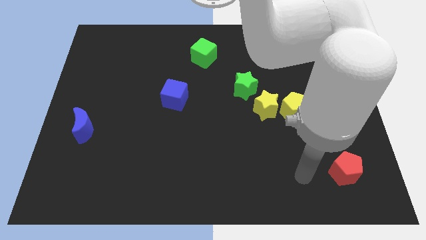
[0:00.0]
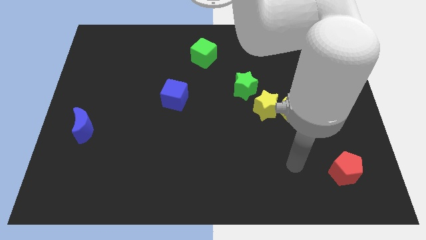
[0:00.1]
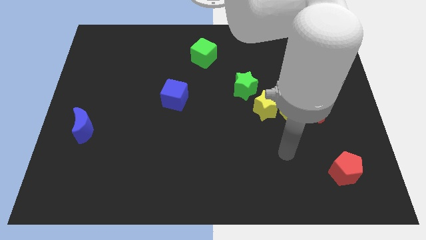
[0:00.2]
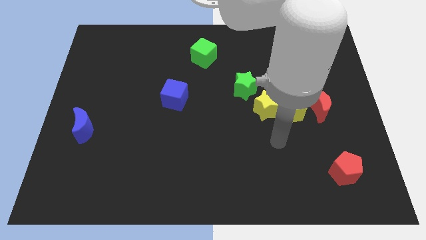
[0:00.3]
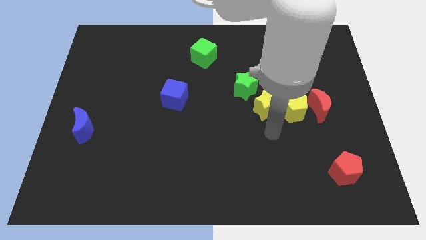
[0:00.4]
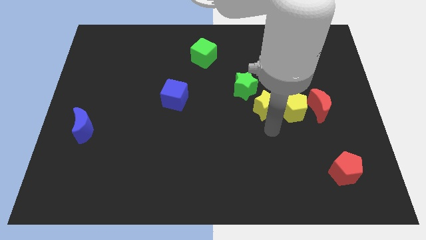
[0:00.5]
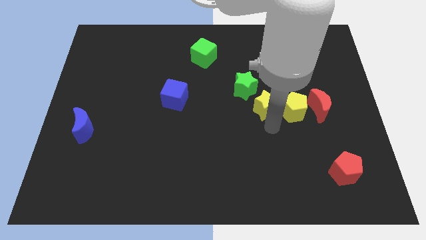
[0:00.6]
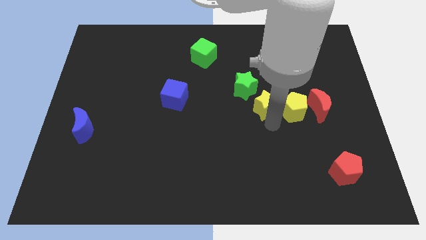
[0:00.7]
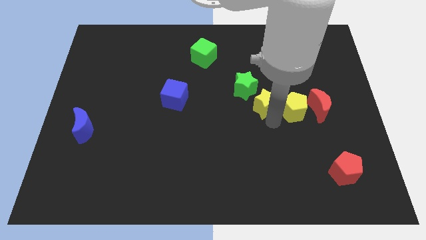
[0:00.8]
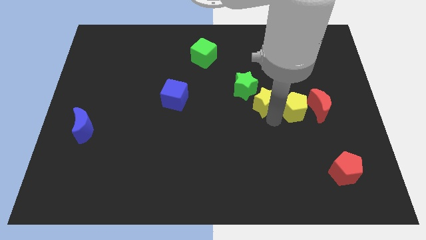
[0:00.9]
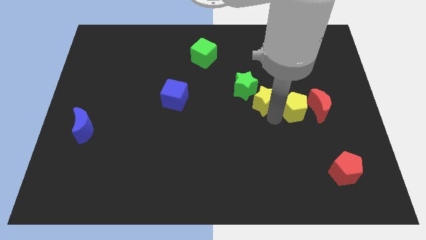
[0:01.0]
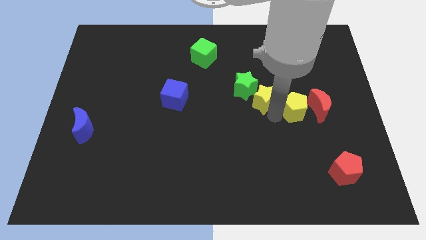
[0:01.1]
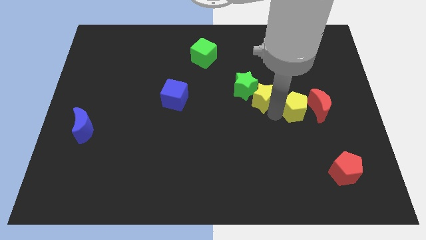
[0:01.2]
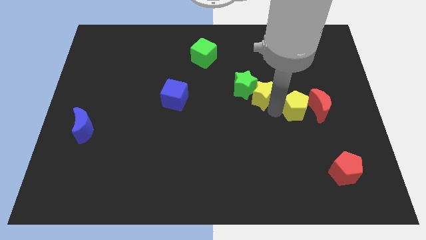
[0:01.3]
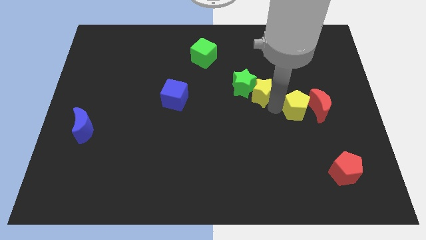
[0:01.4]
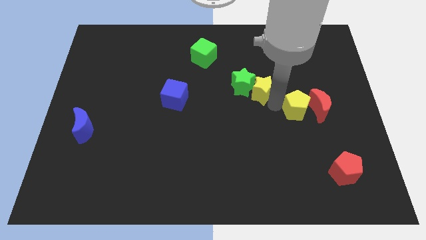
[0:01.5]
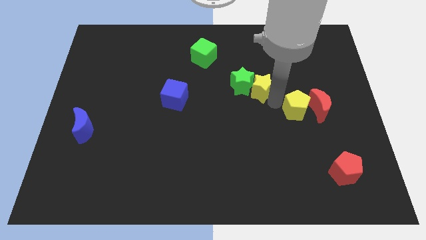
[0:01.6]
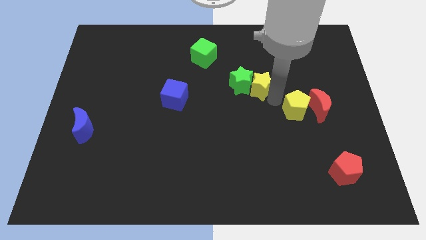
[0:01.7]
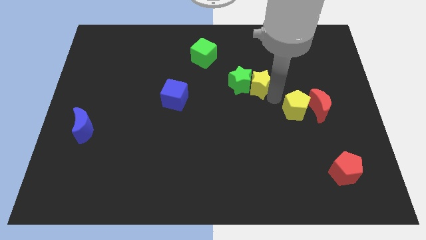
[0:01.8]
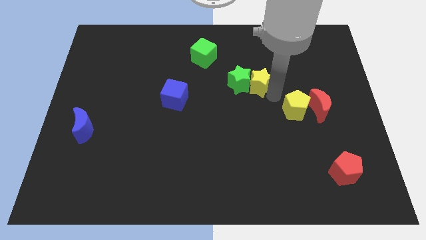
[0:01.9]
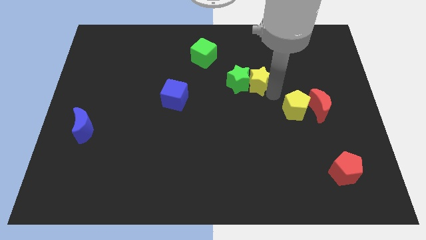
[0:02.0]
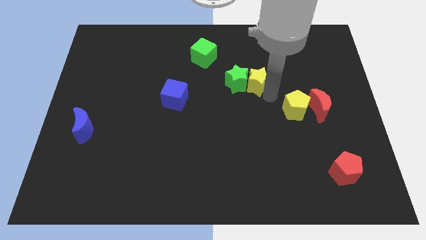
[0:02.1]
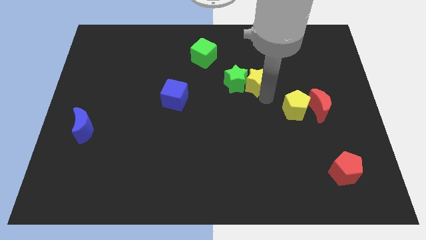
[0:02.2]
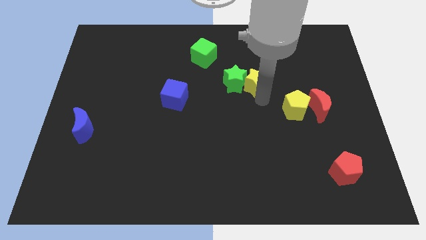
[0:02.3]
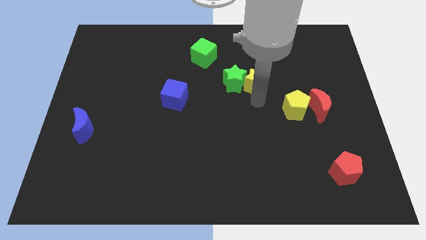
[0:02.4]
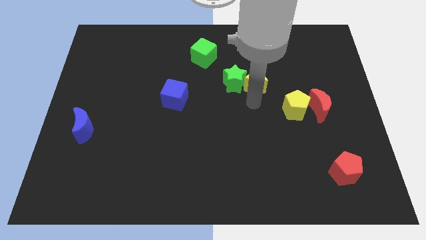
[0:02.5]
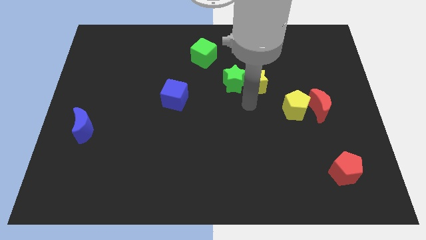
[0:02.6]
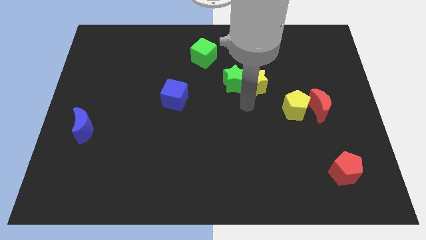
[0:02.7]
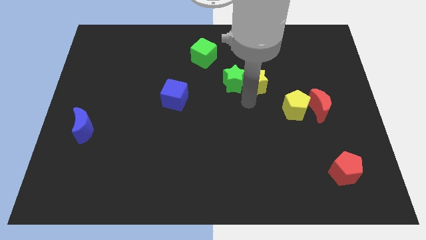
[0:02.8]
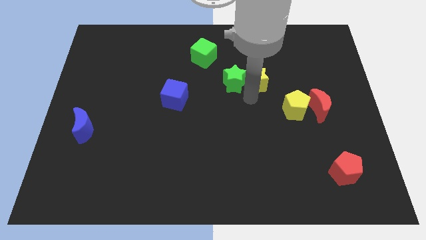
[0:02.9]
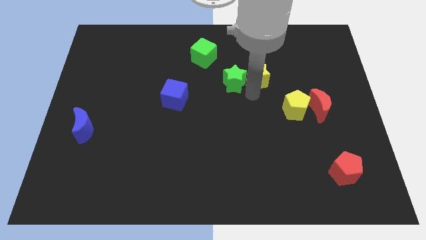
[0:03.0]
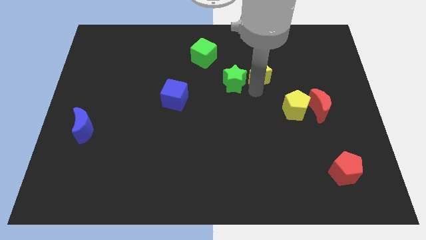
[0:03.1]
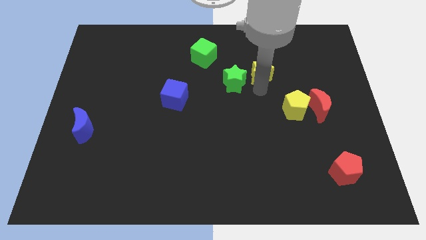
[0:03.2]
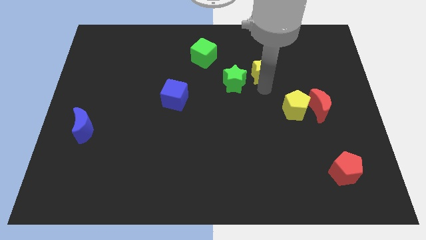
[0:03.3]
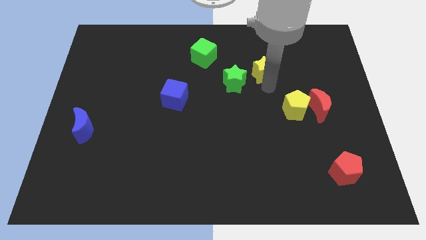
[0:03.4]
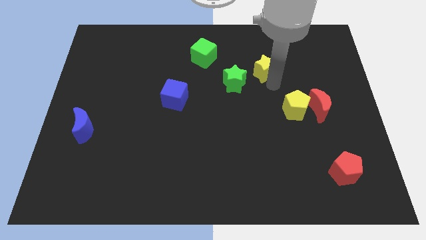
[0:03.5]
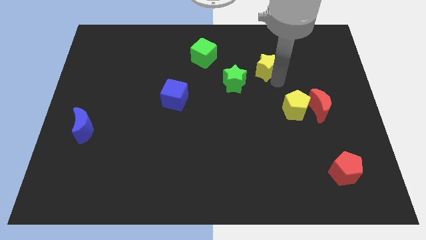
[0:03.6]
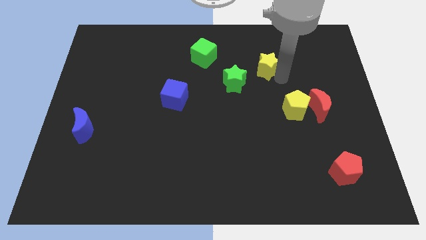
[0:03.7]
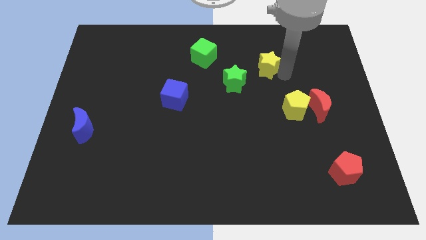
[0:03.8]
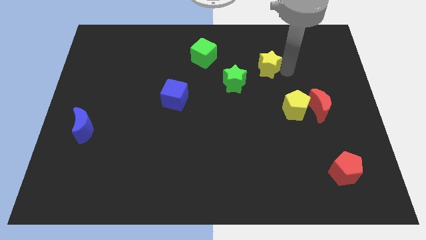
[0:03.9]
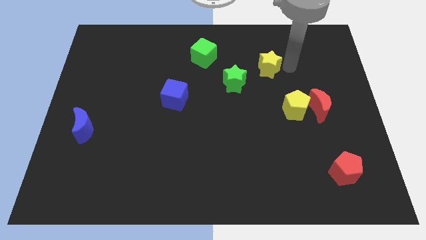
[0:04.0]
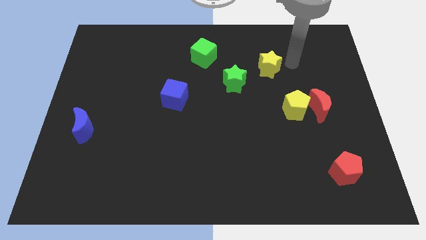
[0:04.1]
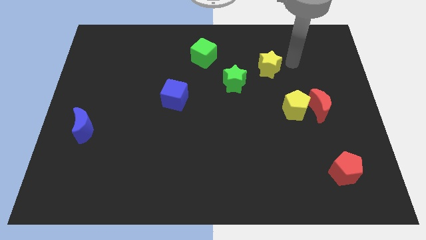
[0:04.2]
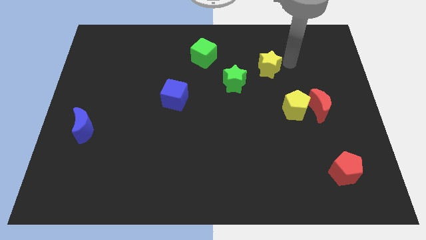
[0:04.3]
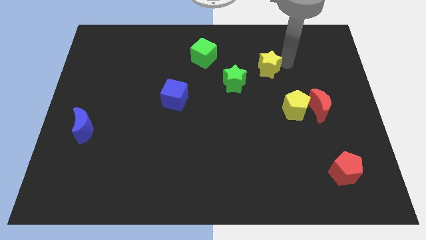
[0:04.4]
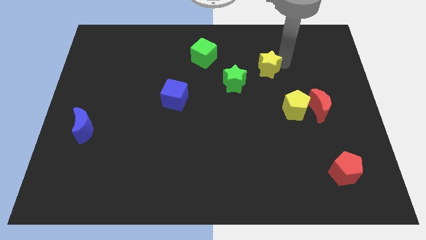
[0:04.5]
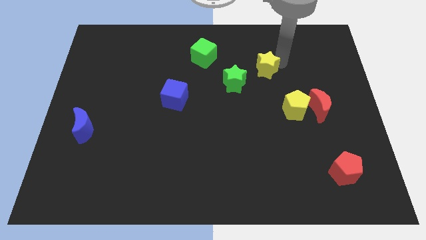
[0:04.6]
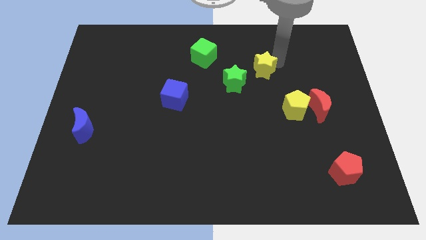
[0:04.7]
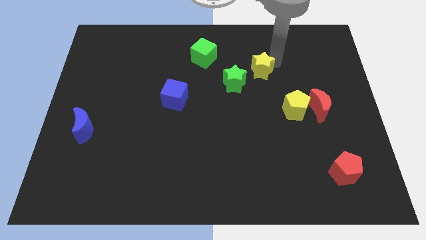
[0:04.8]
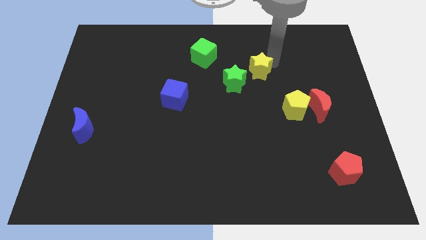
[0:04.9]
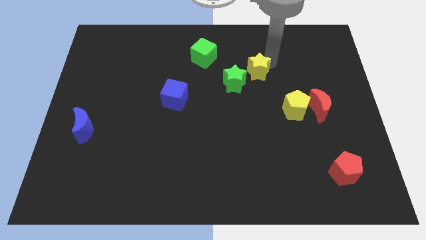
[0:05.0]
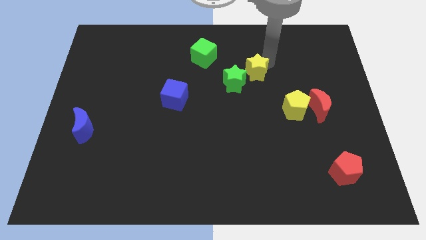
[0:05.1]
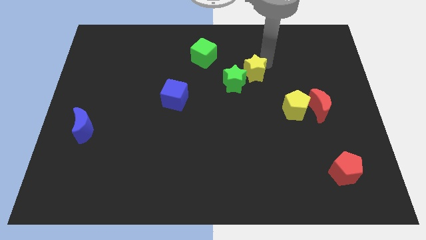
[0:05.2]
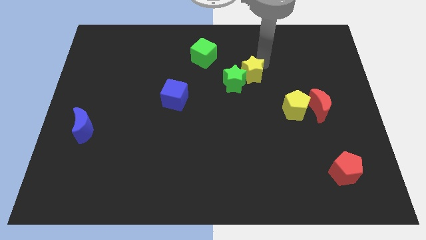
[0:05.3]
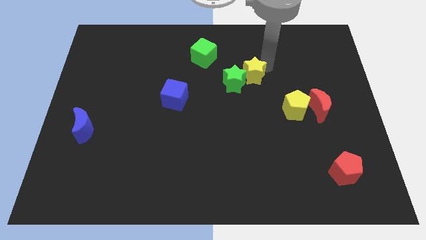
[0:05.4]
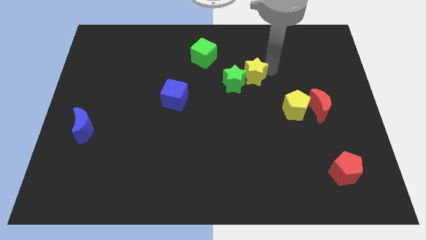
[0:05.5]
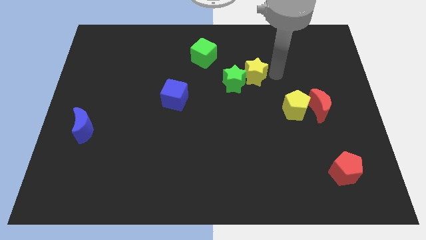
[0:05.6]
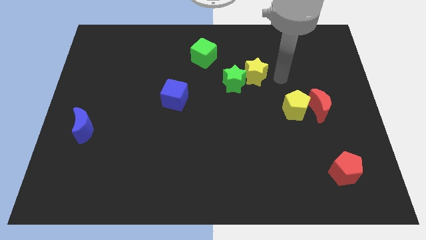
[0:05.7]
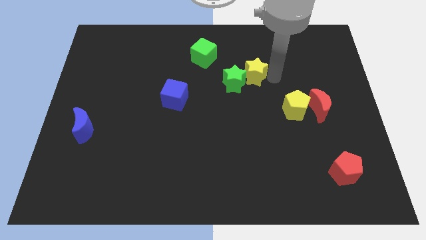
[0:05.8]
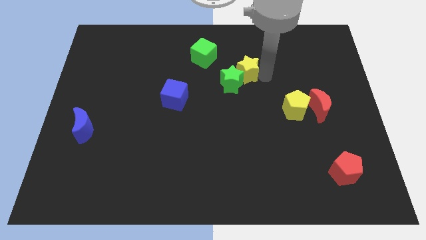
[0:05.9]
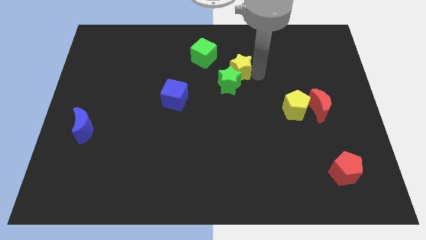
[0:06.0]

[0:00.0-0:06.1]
slide the yellow star to the bottom right side of the green cube

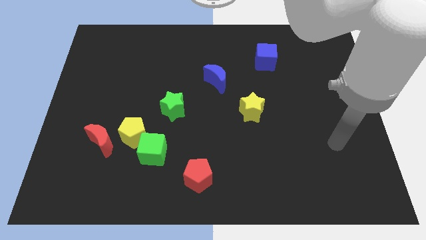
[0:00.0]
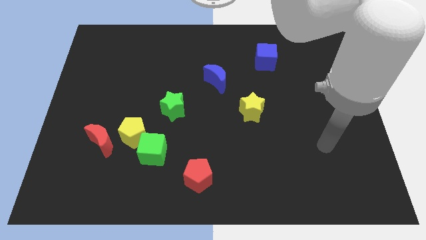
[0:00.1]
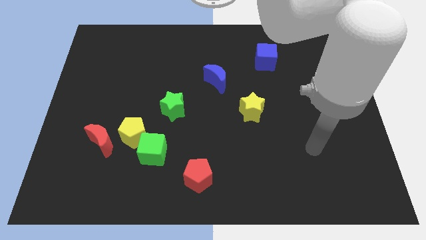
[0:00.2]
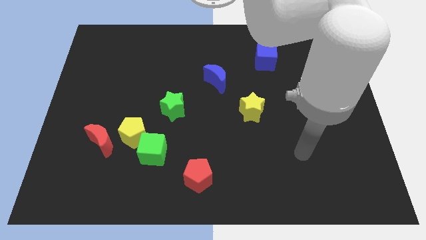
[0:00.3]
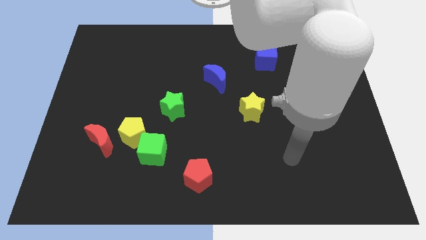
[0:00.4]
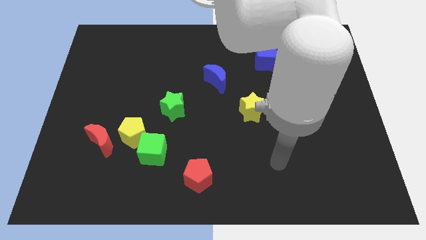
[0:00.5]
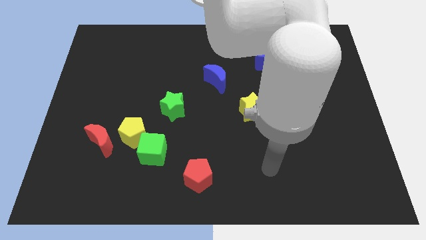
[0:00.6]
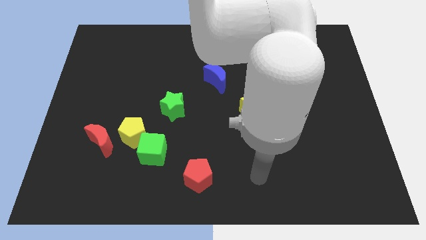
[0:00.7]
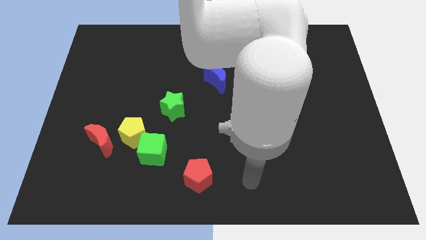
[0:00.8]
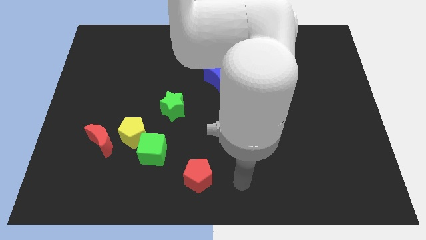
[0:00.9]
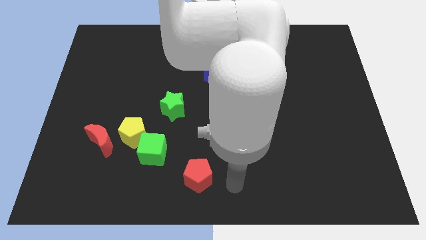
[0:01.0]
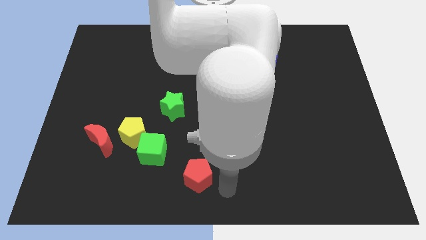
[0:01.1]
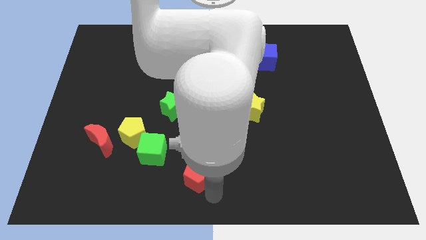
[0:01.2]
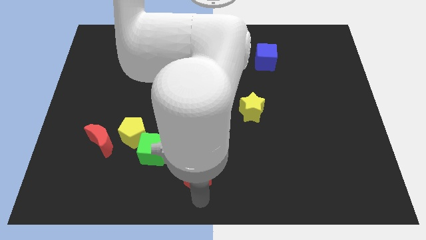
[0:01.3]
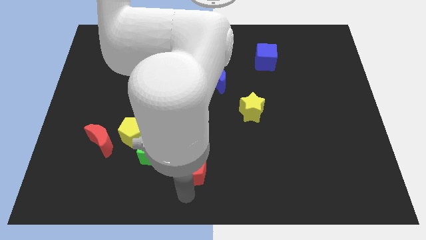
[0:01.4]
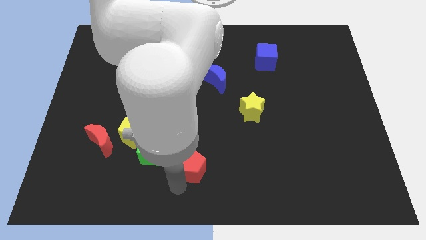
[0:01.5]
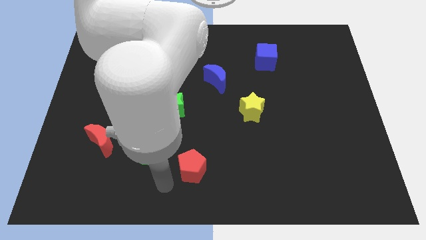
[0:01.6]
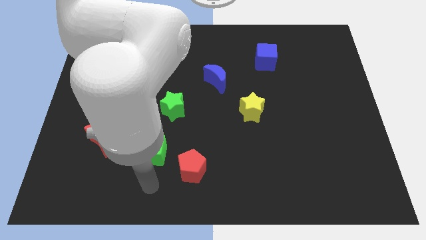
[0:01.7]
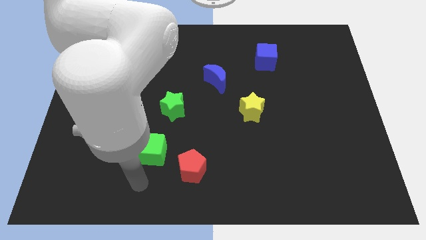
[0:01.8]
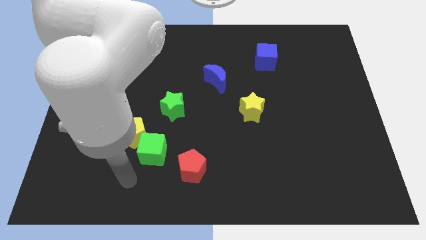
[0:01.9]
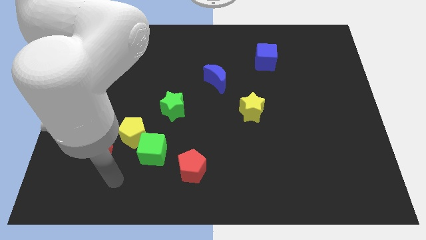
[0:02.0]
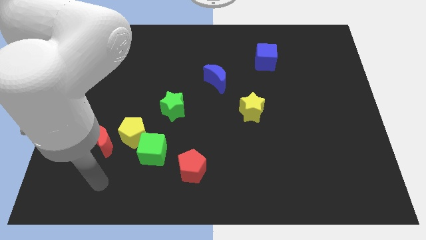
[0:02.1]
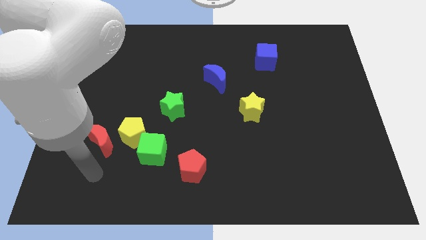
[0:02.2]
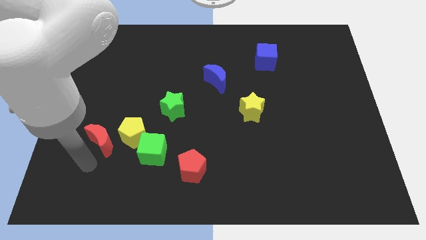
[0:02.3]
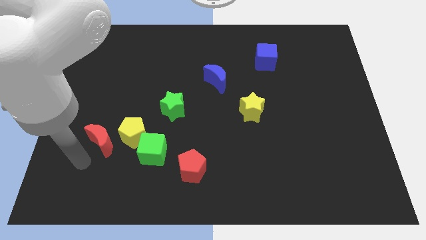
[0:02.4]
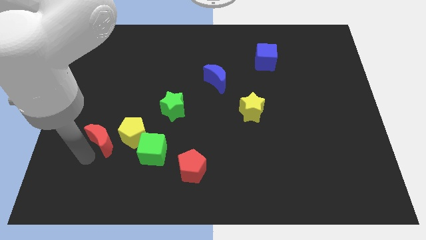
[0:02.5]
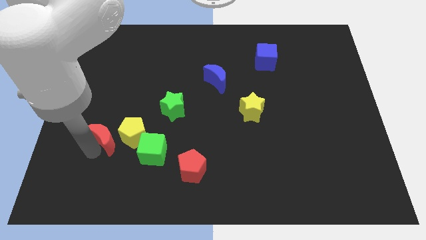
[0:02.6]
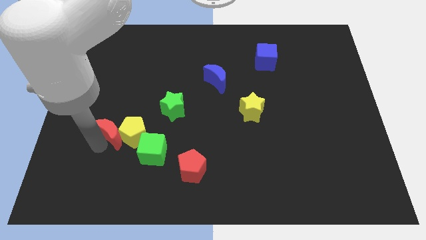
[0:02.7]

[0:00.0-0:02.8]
move the red moon diagonally up and to the left of the green cube

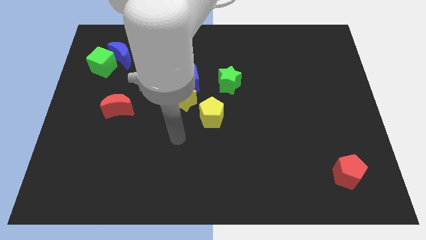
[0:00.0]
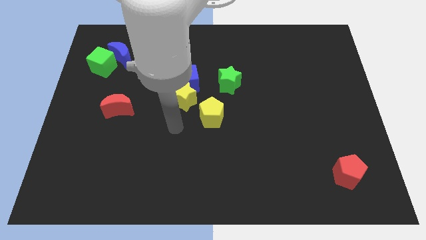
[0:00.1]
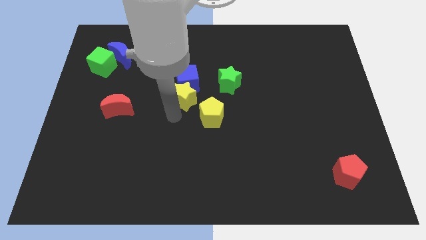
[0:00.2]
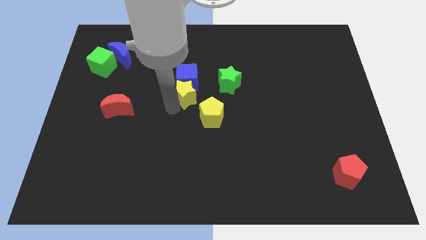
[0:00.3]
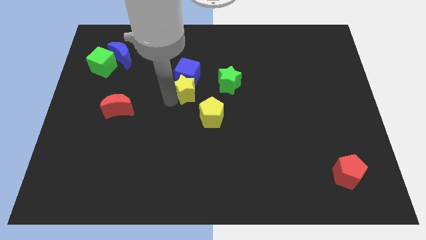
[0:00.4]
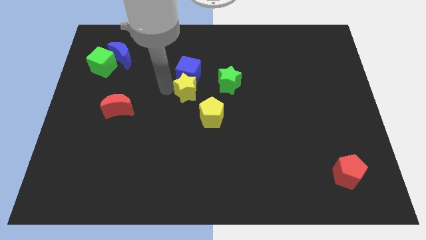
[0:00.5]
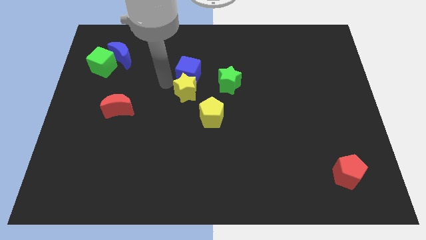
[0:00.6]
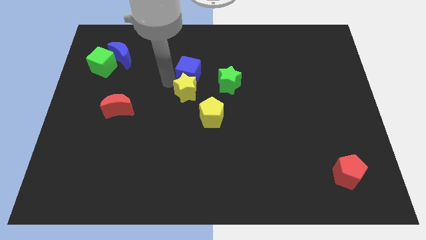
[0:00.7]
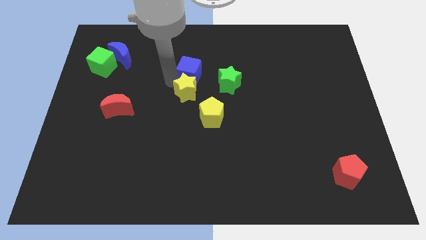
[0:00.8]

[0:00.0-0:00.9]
slide the blue cube to the top left of the green star
